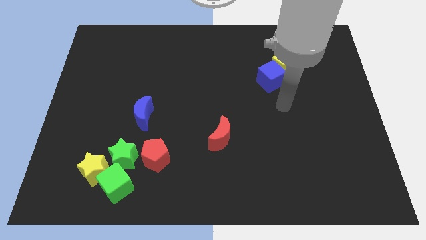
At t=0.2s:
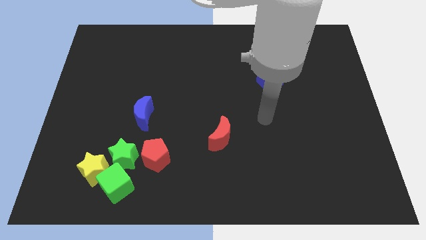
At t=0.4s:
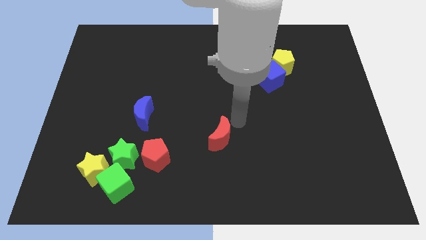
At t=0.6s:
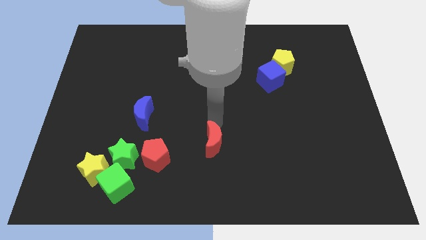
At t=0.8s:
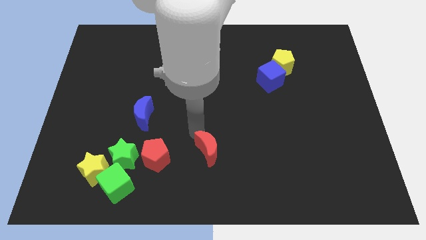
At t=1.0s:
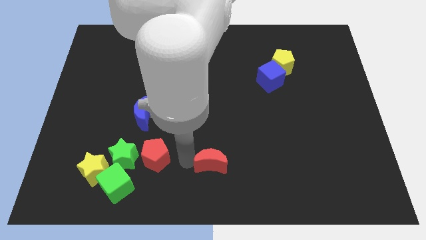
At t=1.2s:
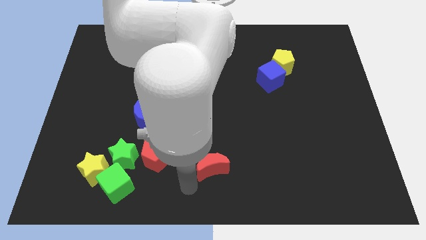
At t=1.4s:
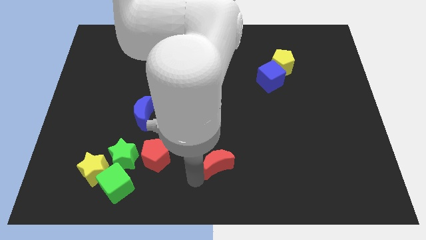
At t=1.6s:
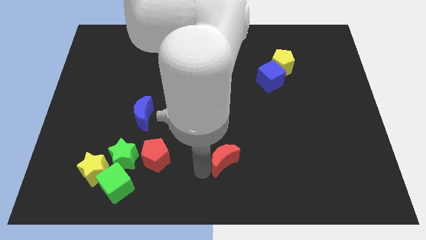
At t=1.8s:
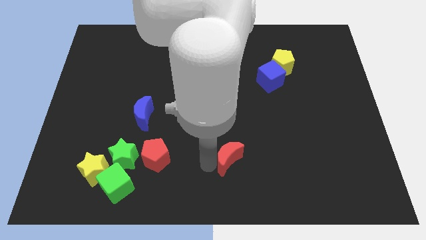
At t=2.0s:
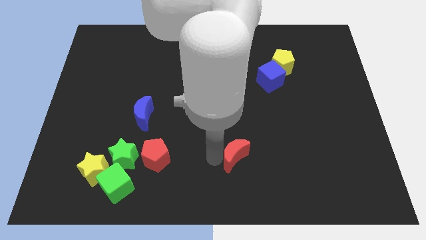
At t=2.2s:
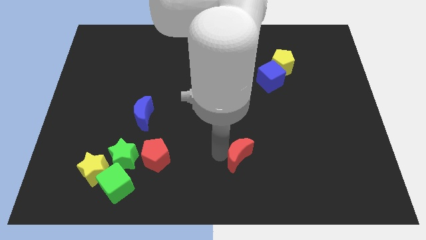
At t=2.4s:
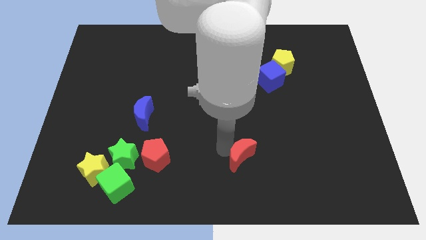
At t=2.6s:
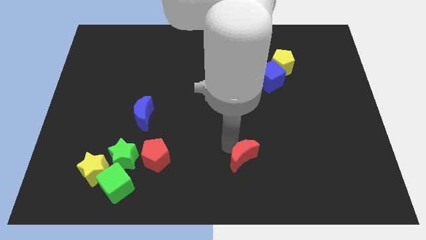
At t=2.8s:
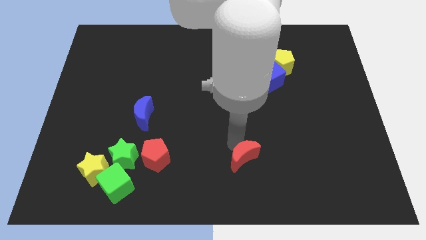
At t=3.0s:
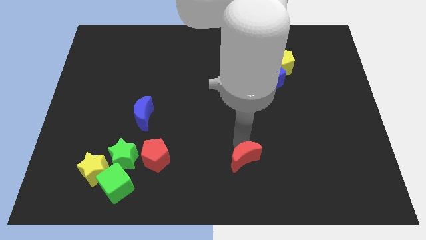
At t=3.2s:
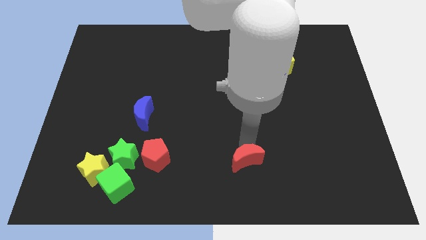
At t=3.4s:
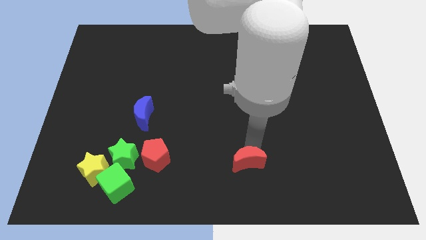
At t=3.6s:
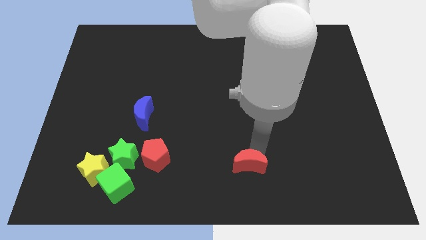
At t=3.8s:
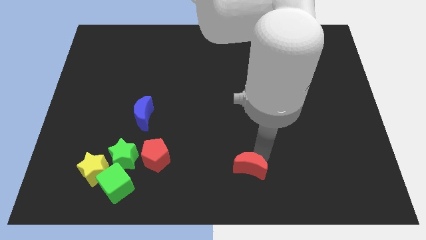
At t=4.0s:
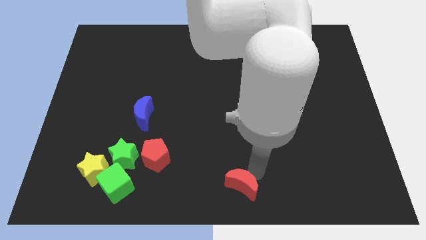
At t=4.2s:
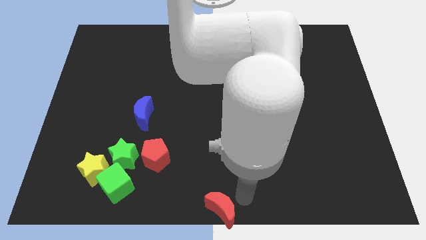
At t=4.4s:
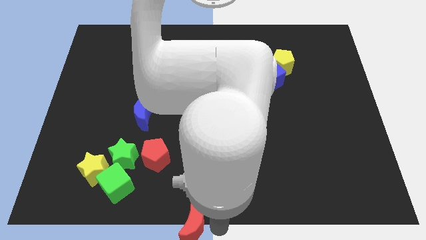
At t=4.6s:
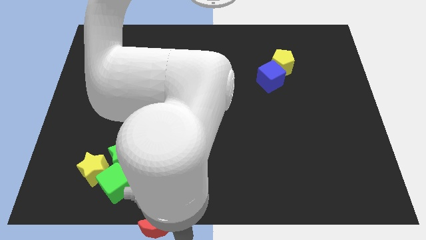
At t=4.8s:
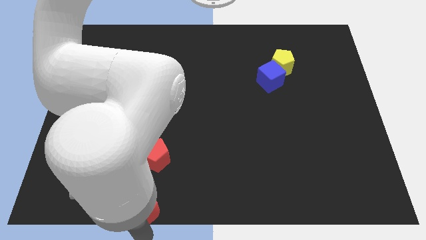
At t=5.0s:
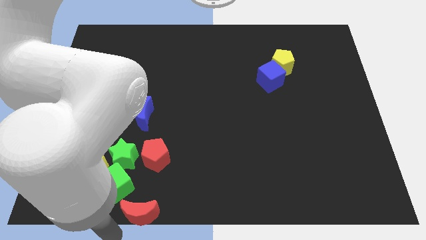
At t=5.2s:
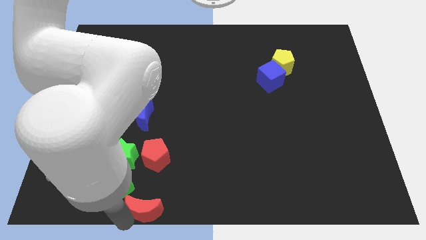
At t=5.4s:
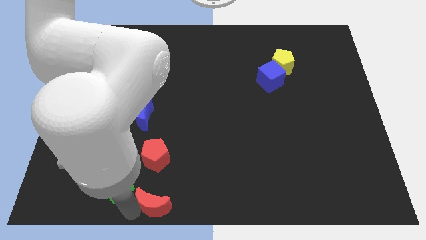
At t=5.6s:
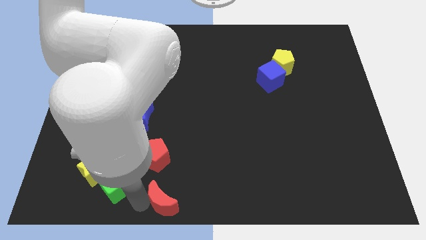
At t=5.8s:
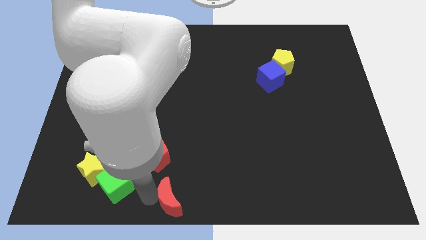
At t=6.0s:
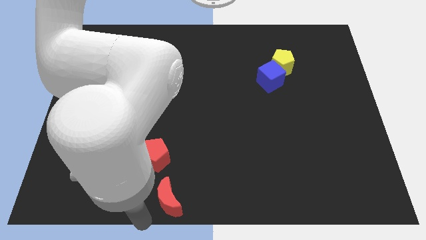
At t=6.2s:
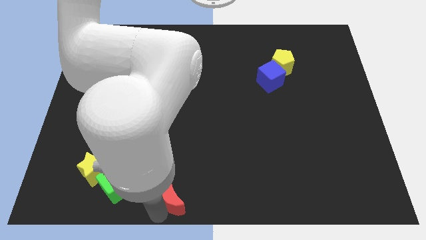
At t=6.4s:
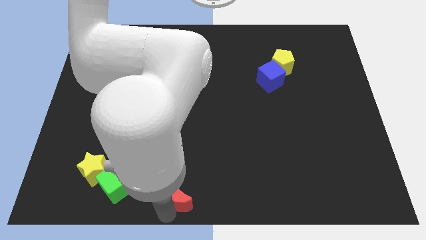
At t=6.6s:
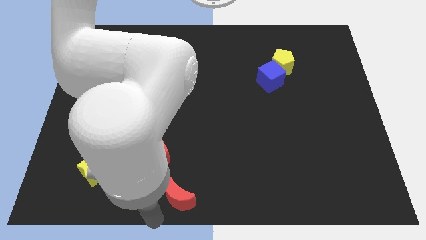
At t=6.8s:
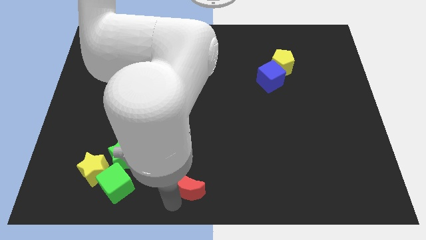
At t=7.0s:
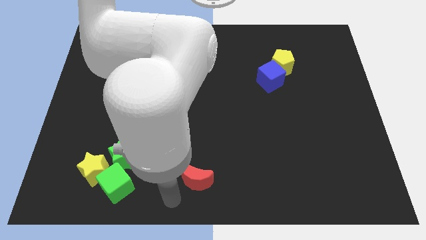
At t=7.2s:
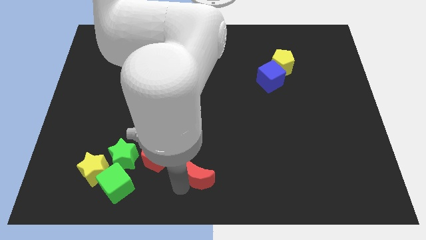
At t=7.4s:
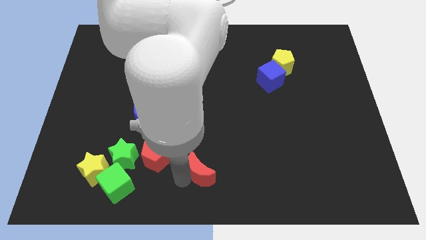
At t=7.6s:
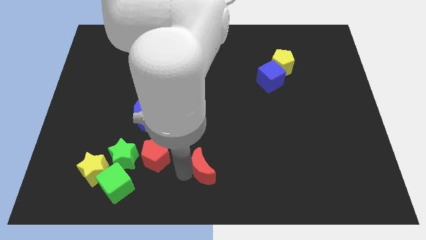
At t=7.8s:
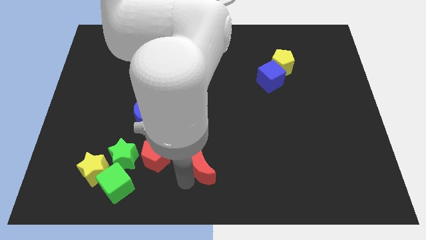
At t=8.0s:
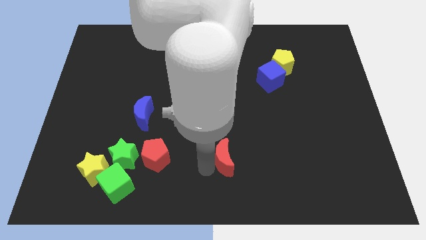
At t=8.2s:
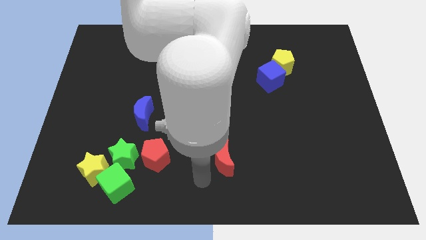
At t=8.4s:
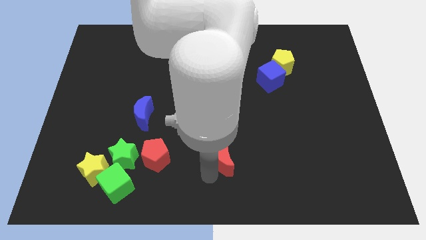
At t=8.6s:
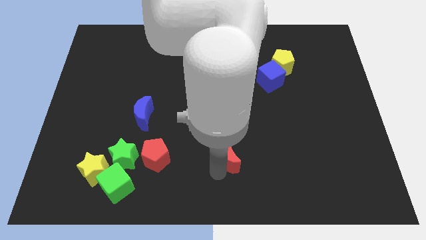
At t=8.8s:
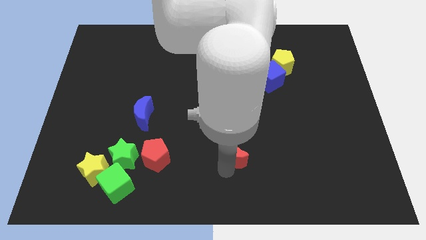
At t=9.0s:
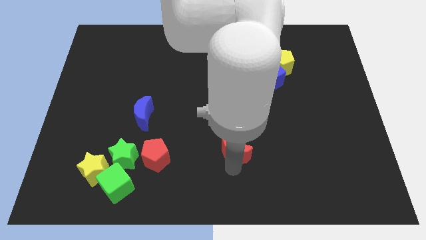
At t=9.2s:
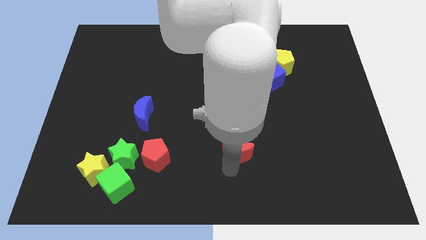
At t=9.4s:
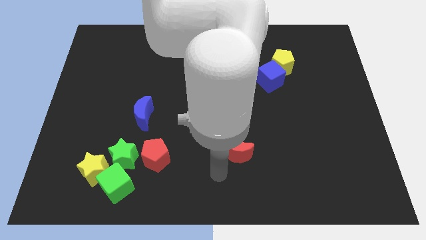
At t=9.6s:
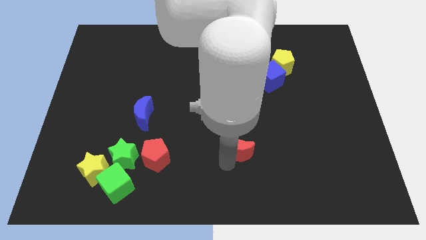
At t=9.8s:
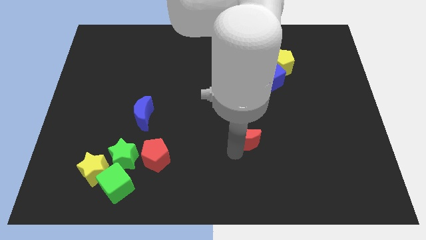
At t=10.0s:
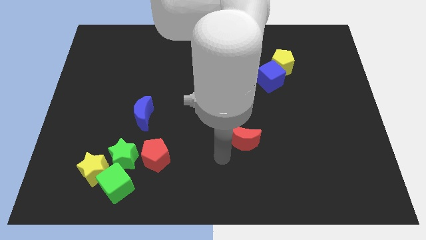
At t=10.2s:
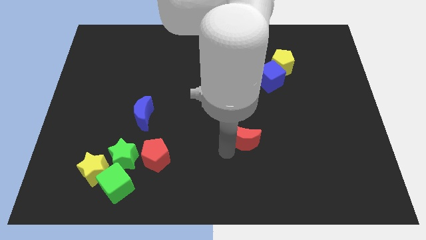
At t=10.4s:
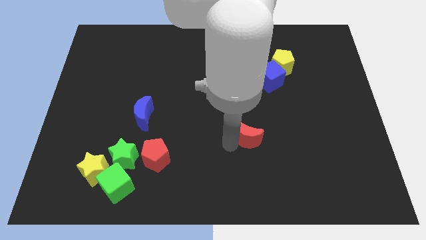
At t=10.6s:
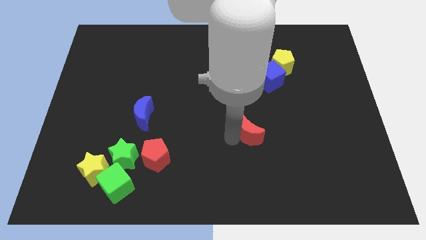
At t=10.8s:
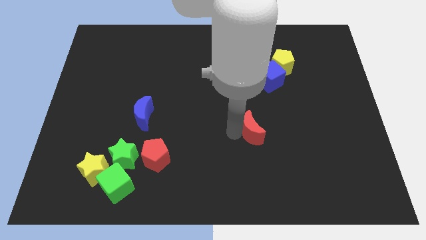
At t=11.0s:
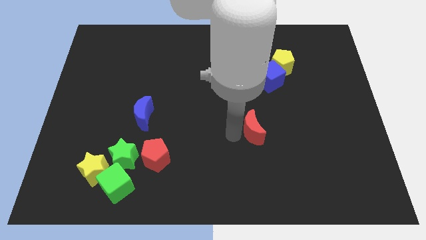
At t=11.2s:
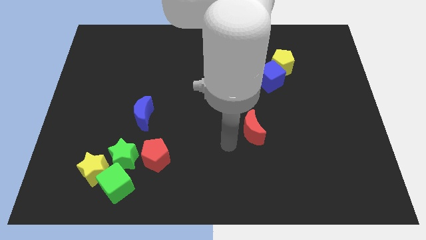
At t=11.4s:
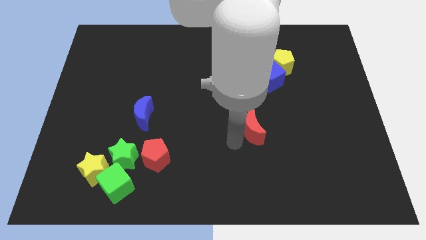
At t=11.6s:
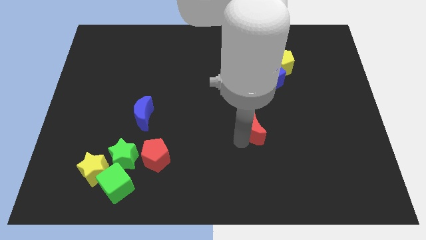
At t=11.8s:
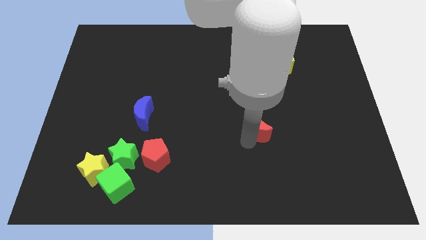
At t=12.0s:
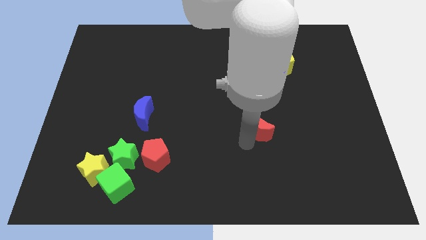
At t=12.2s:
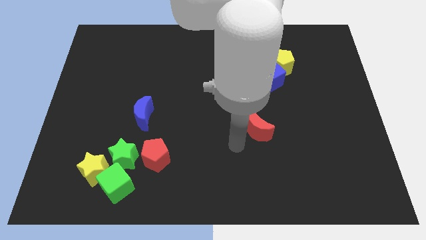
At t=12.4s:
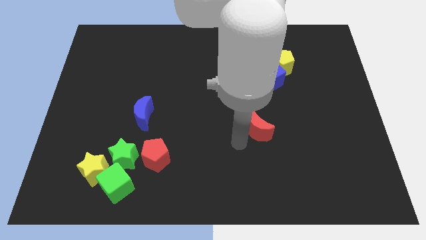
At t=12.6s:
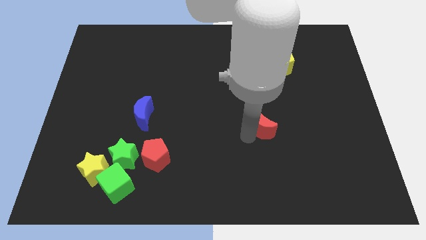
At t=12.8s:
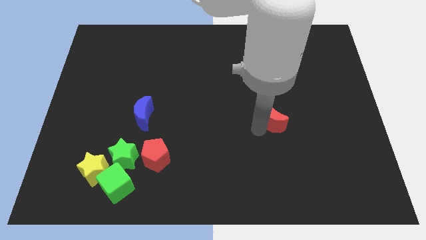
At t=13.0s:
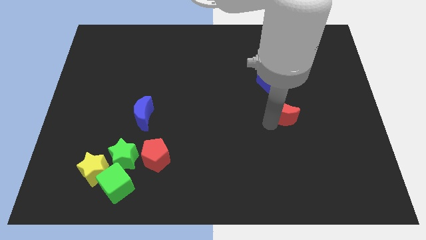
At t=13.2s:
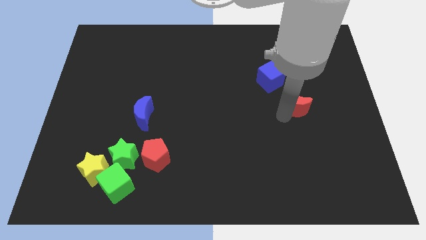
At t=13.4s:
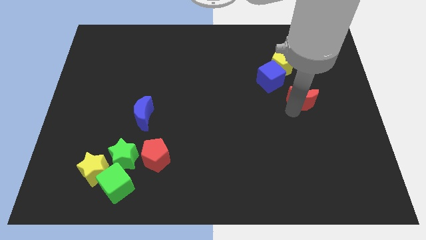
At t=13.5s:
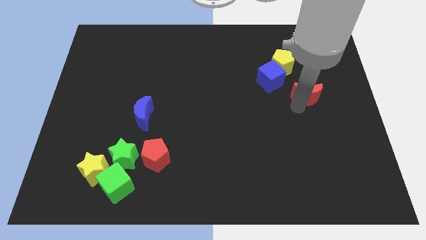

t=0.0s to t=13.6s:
slide the red moon diagonally up and to the right

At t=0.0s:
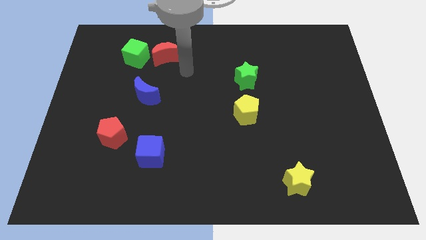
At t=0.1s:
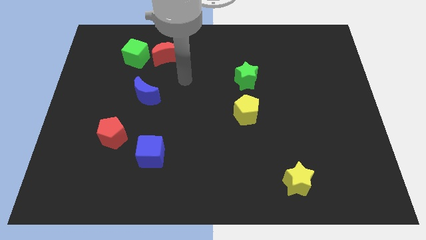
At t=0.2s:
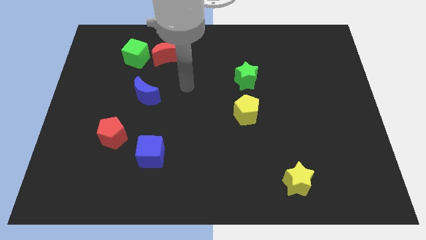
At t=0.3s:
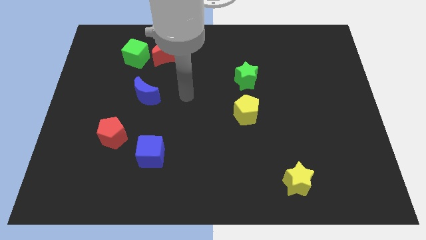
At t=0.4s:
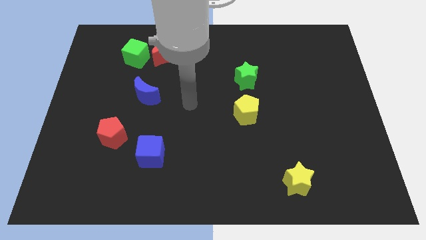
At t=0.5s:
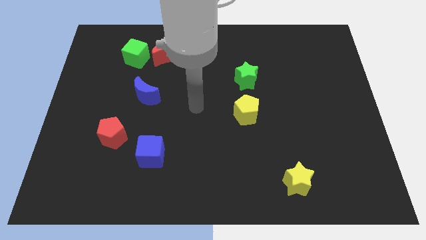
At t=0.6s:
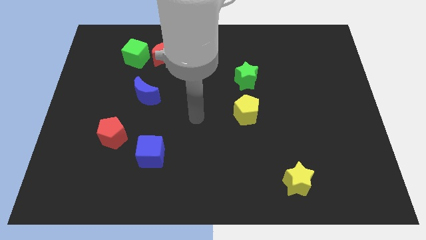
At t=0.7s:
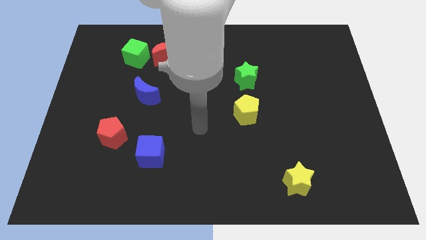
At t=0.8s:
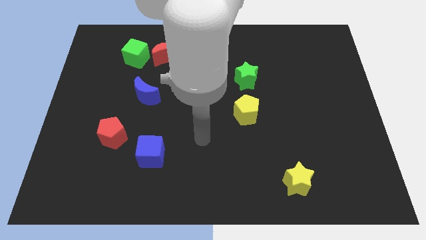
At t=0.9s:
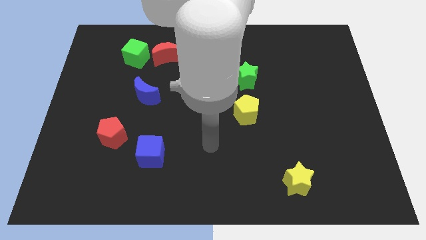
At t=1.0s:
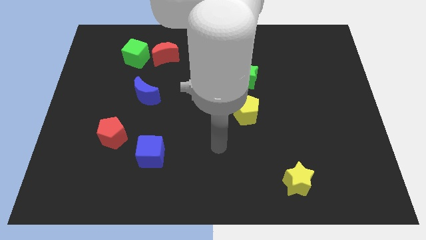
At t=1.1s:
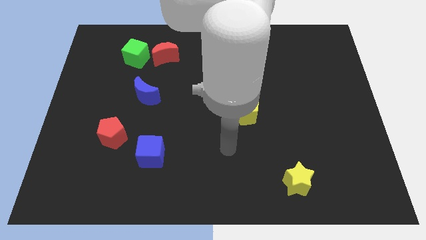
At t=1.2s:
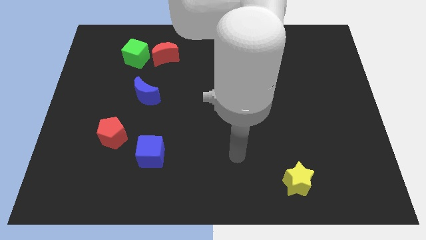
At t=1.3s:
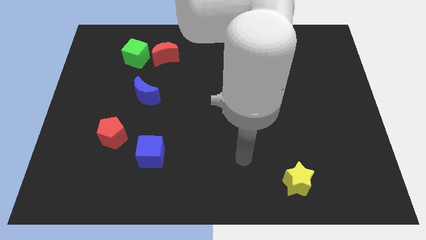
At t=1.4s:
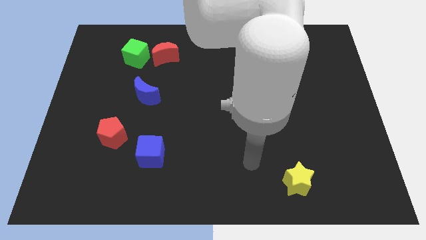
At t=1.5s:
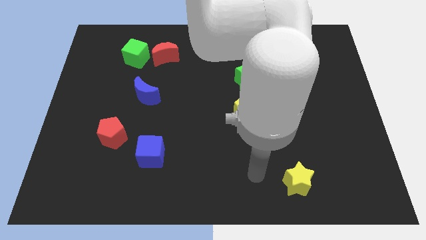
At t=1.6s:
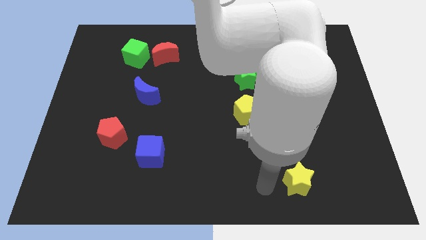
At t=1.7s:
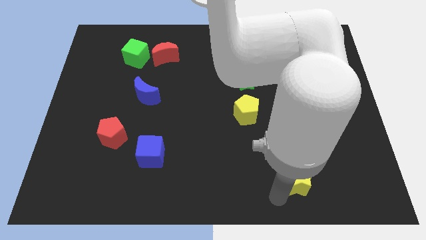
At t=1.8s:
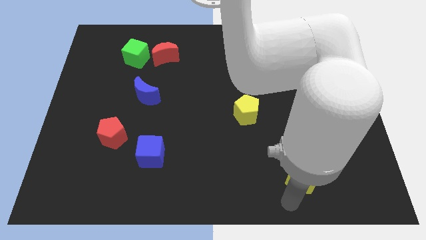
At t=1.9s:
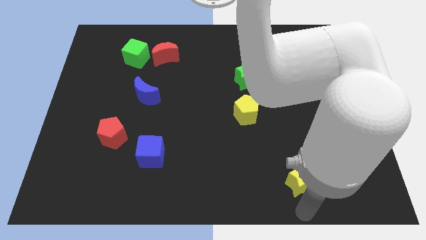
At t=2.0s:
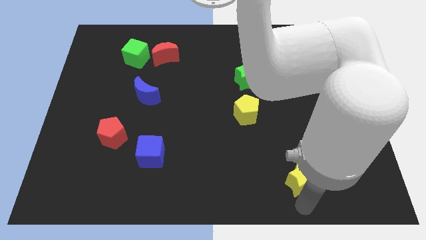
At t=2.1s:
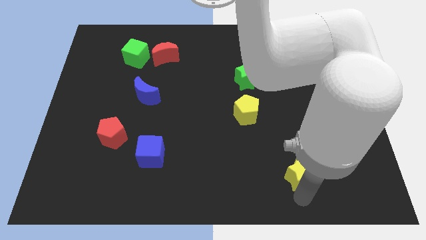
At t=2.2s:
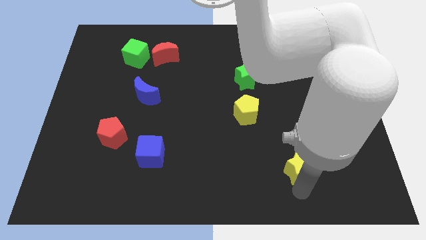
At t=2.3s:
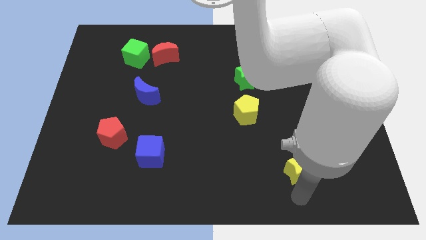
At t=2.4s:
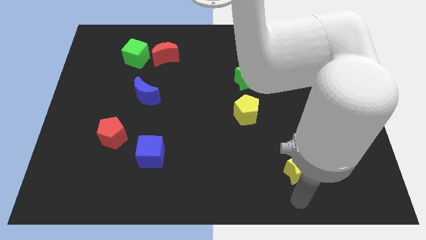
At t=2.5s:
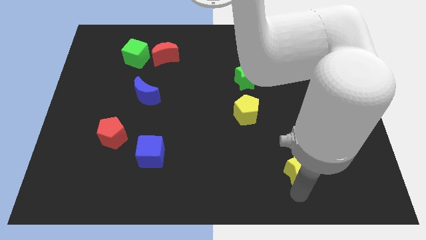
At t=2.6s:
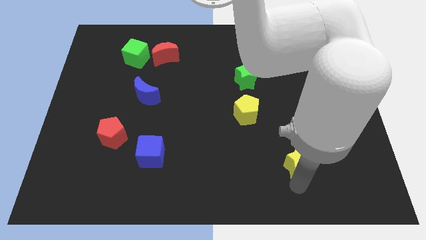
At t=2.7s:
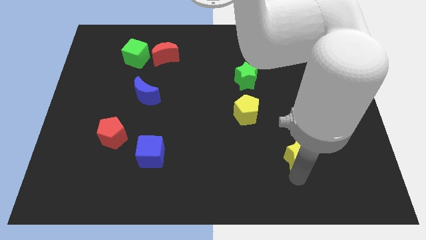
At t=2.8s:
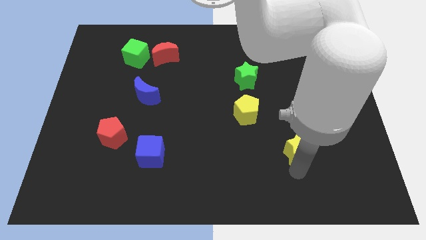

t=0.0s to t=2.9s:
push the yellow star up slightly
